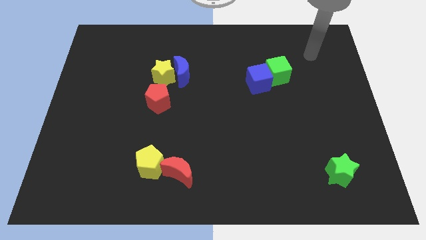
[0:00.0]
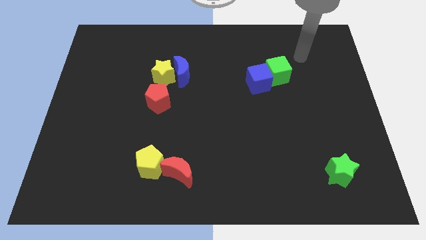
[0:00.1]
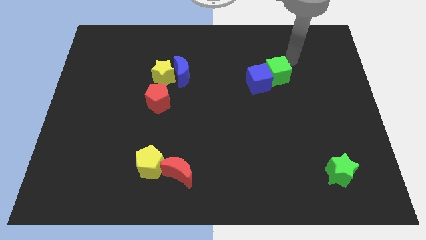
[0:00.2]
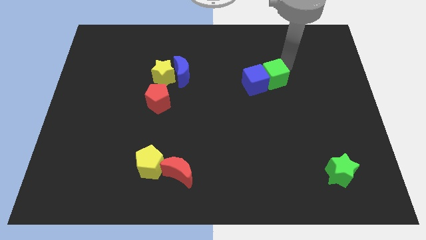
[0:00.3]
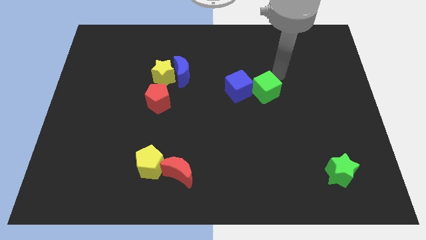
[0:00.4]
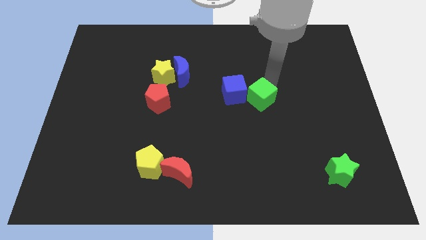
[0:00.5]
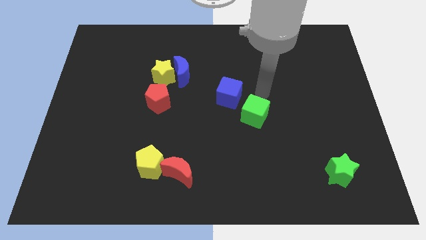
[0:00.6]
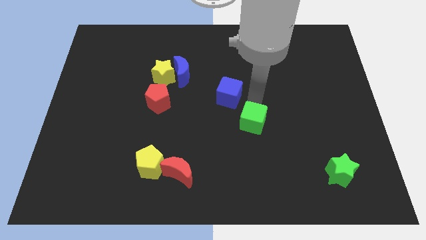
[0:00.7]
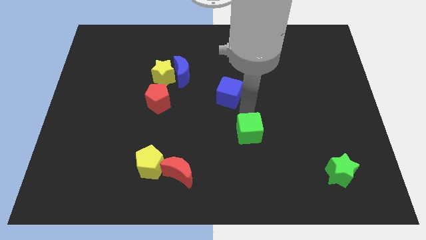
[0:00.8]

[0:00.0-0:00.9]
separate the blue cube from the green cube

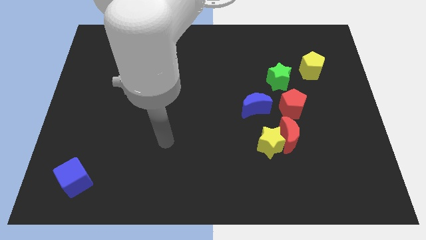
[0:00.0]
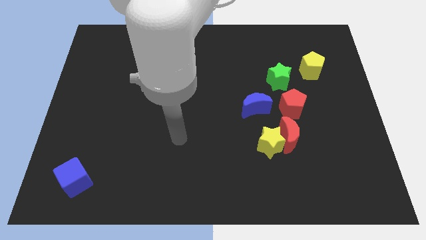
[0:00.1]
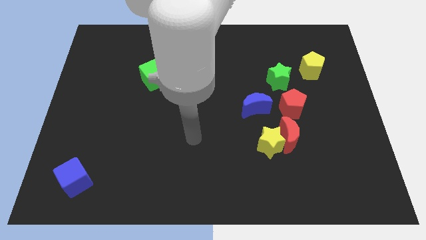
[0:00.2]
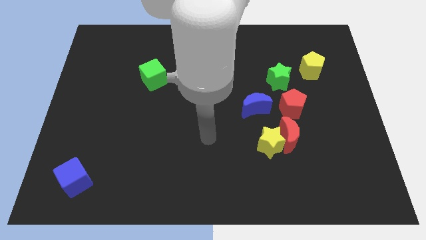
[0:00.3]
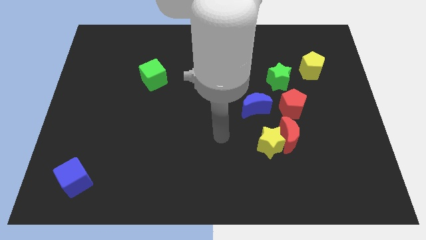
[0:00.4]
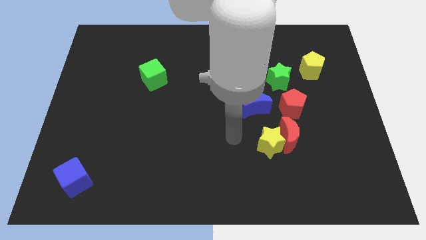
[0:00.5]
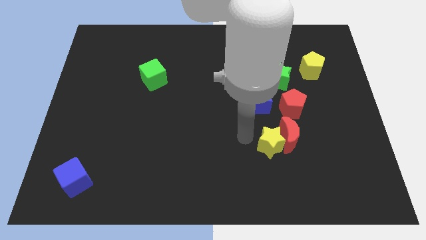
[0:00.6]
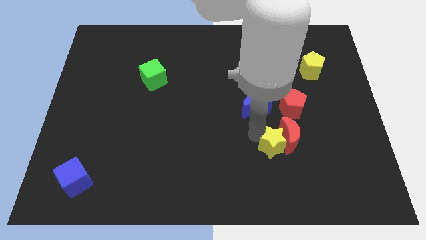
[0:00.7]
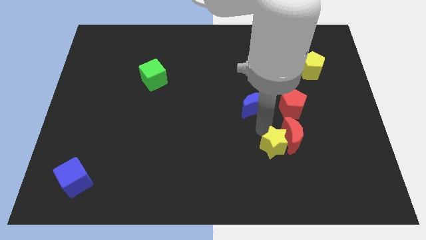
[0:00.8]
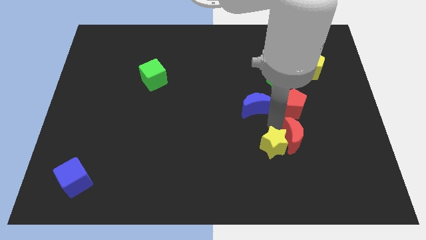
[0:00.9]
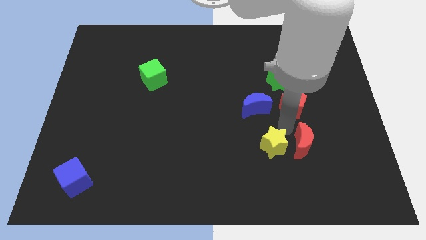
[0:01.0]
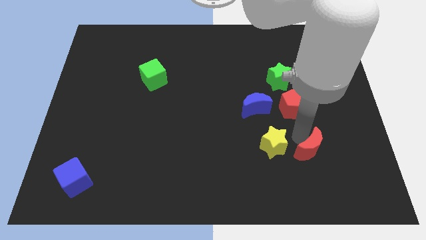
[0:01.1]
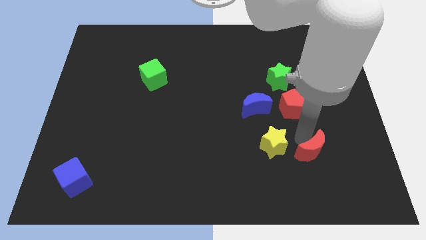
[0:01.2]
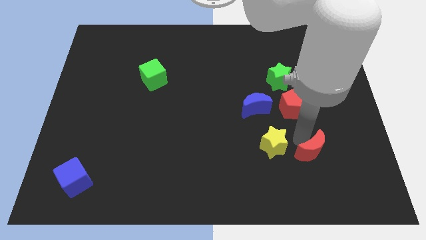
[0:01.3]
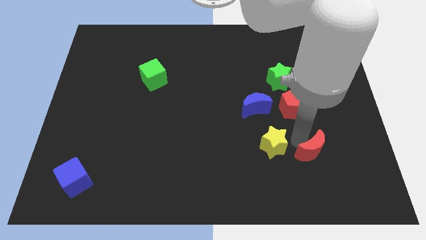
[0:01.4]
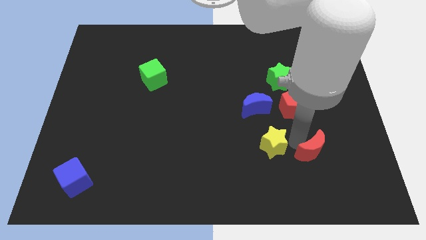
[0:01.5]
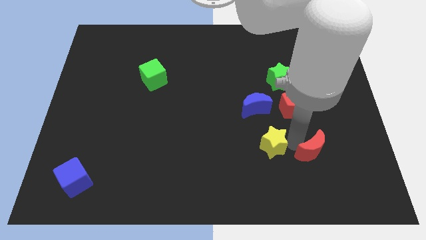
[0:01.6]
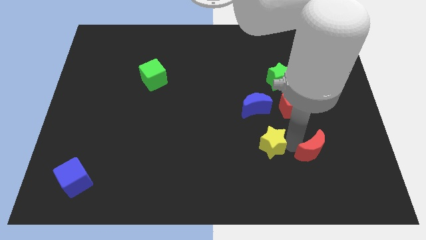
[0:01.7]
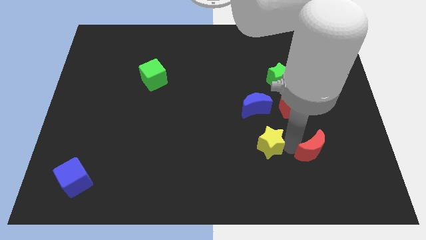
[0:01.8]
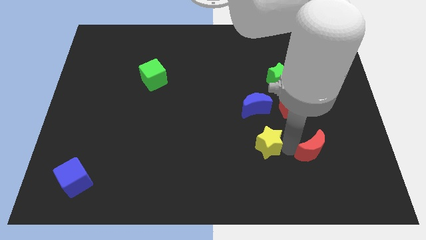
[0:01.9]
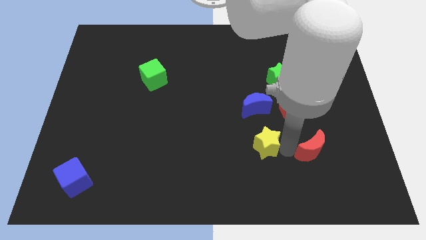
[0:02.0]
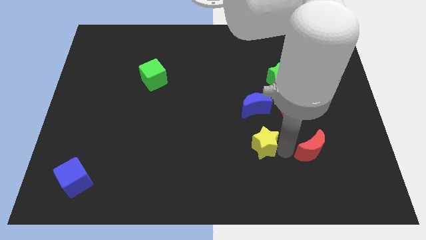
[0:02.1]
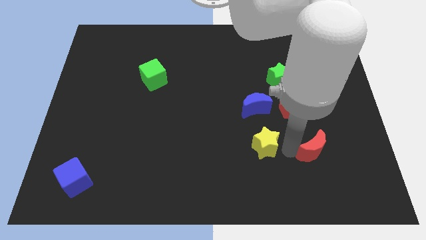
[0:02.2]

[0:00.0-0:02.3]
pull the yellow star apart from the red moon

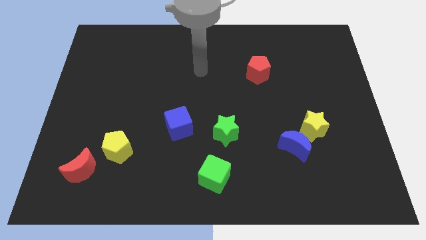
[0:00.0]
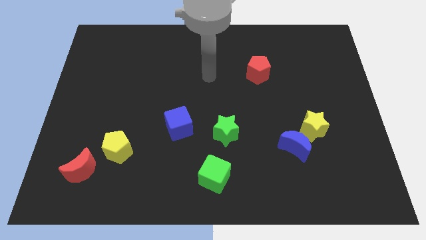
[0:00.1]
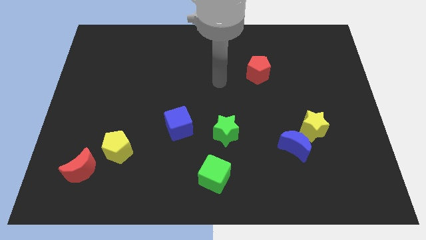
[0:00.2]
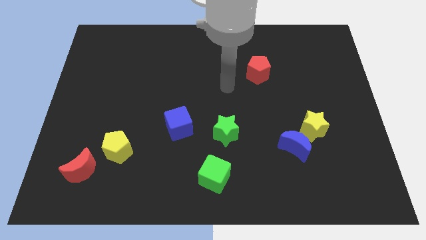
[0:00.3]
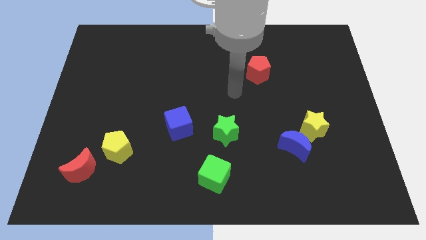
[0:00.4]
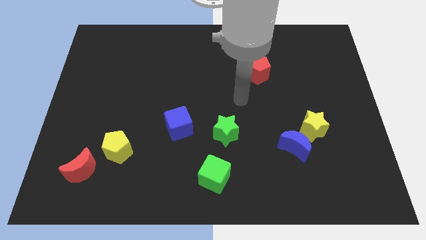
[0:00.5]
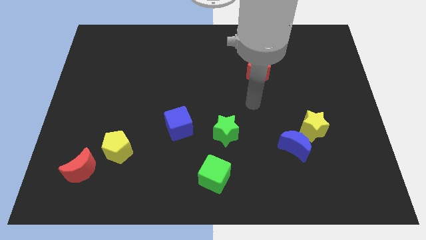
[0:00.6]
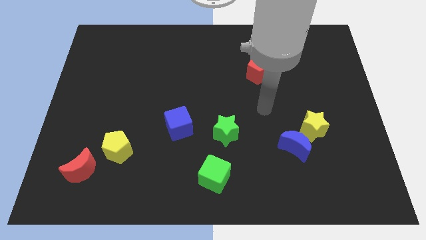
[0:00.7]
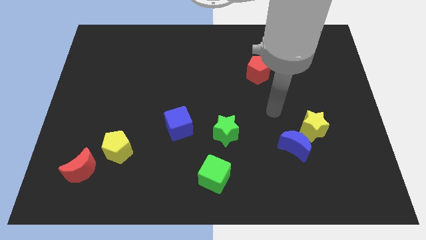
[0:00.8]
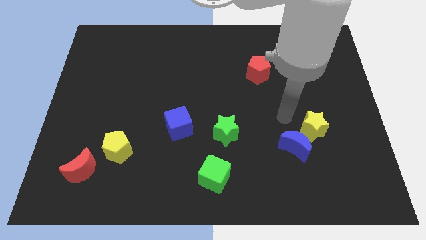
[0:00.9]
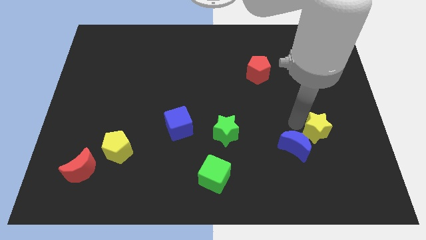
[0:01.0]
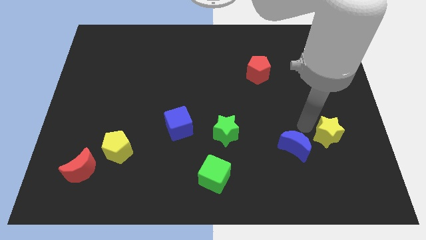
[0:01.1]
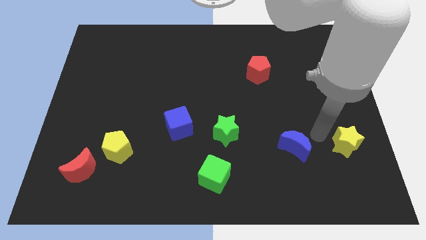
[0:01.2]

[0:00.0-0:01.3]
separate the blue moon from the yellow star

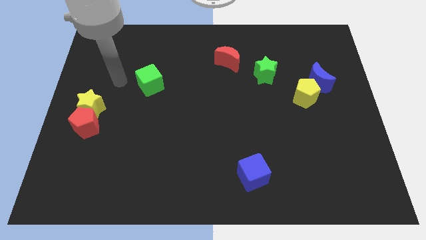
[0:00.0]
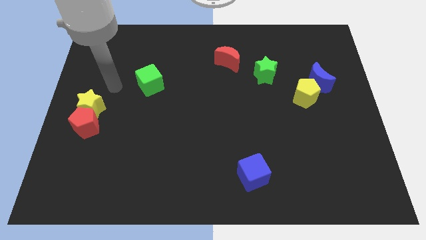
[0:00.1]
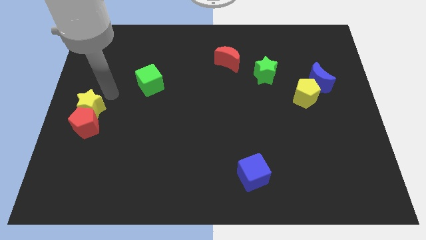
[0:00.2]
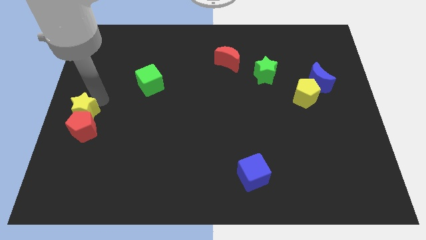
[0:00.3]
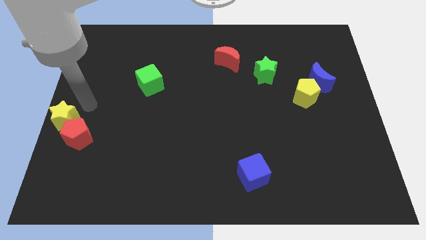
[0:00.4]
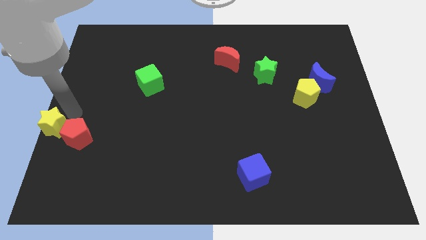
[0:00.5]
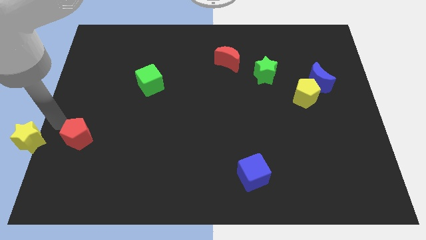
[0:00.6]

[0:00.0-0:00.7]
pull the red pentagon apart from the yellow star

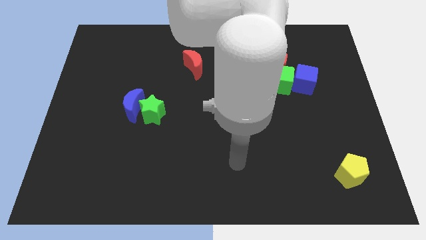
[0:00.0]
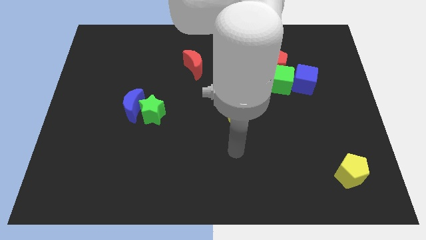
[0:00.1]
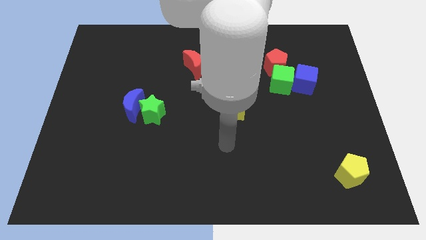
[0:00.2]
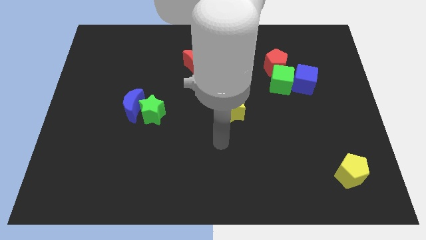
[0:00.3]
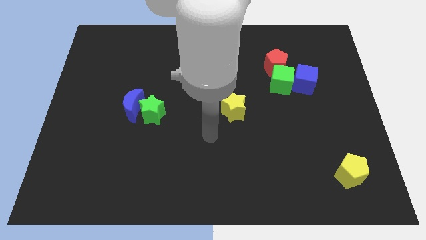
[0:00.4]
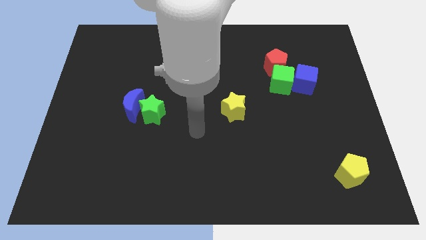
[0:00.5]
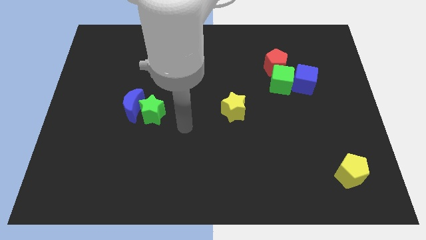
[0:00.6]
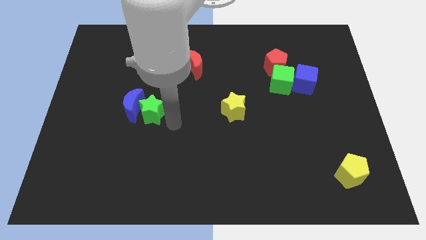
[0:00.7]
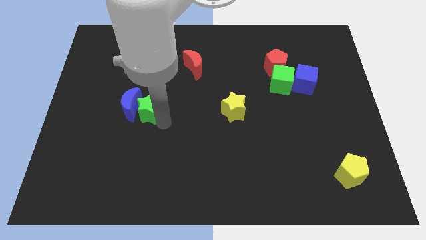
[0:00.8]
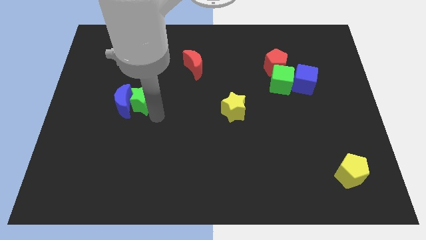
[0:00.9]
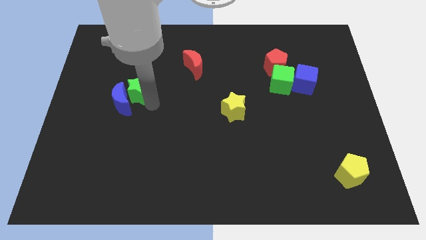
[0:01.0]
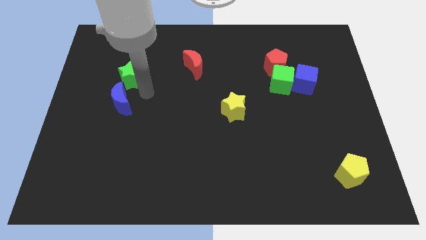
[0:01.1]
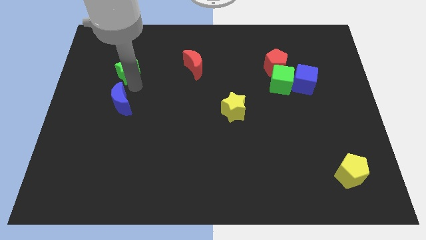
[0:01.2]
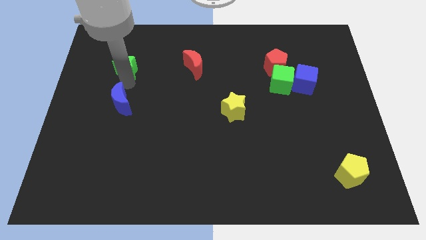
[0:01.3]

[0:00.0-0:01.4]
separate the blue moon from the green star

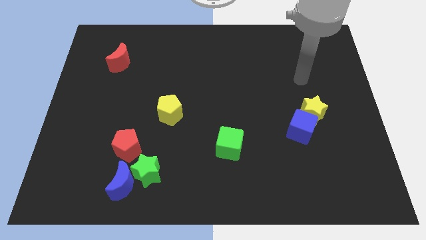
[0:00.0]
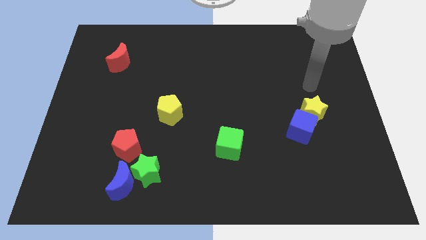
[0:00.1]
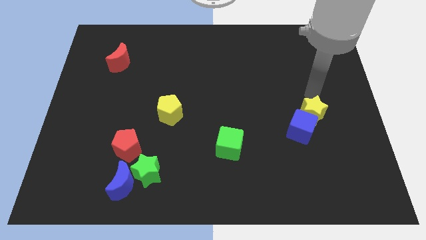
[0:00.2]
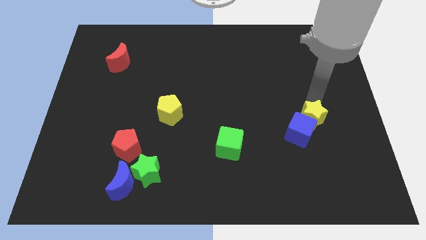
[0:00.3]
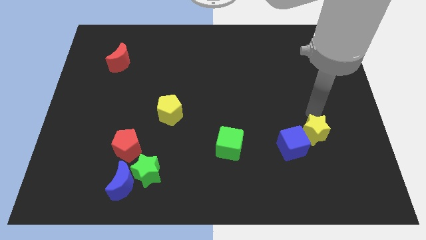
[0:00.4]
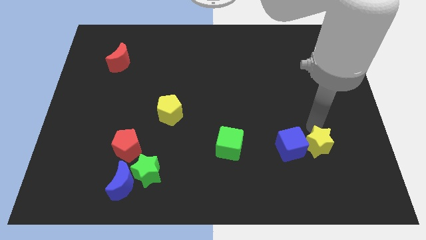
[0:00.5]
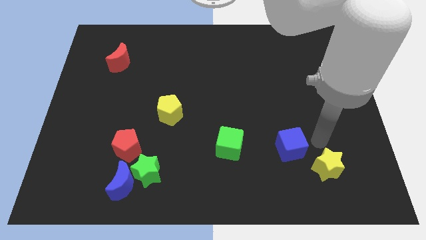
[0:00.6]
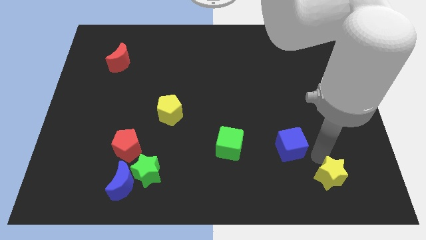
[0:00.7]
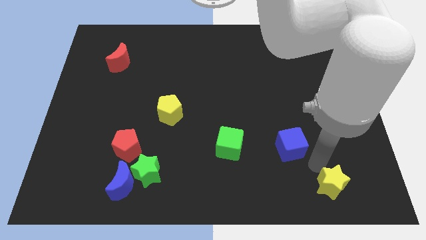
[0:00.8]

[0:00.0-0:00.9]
pull the blue cube apart from the yellow star

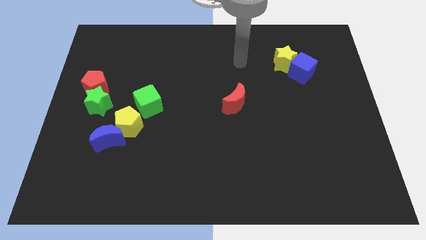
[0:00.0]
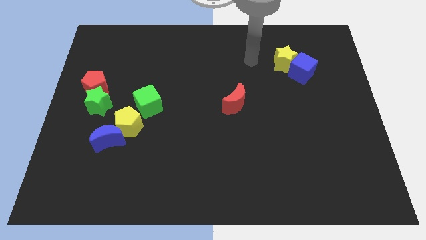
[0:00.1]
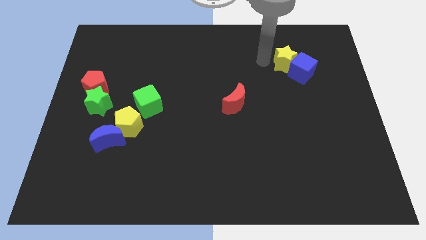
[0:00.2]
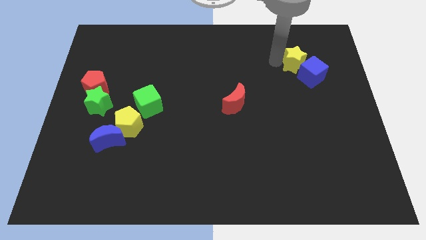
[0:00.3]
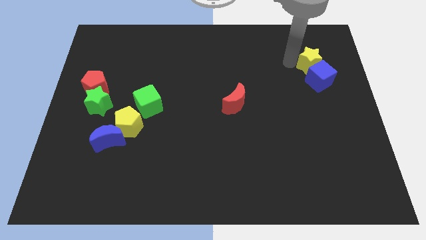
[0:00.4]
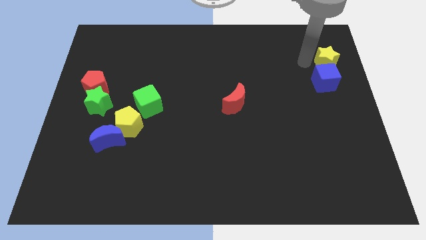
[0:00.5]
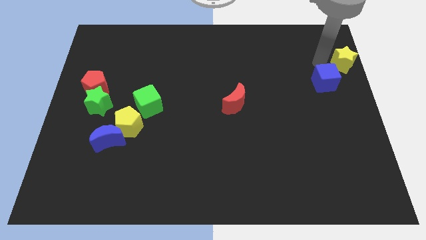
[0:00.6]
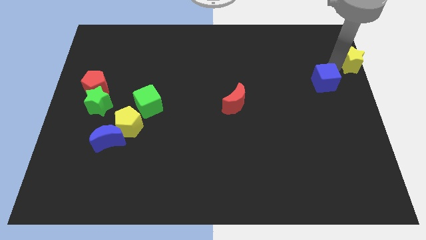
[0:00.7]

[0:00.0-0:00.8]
separate the blue cube from the yellow star

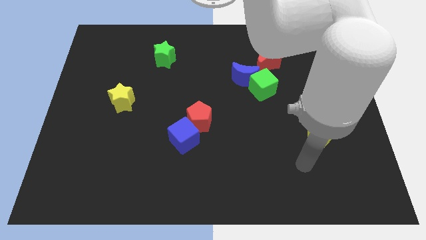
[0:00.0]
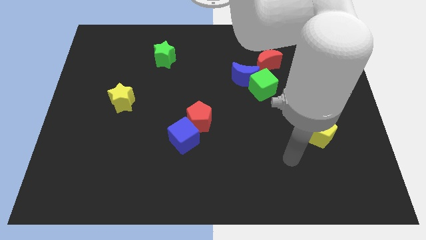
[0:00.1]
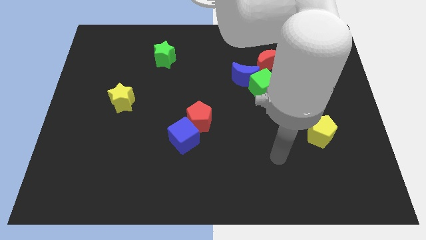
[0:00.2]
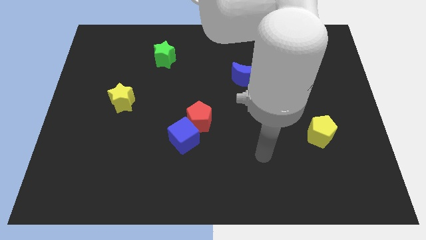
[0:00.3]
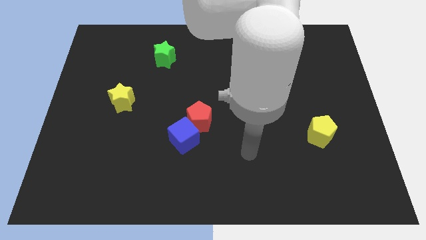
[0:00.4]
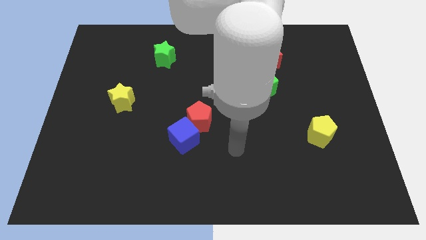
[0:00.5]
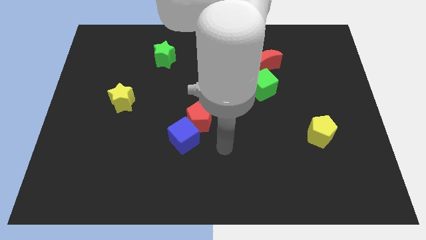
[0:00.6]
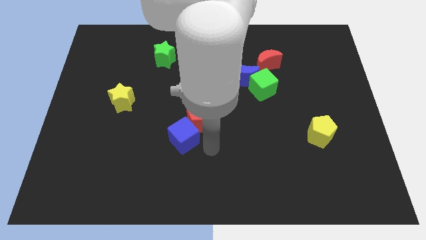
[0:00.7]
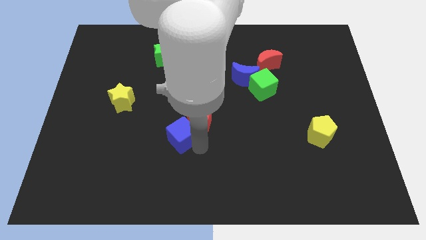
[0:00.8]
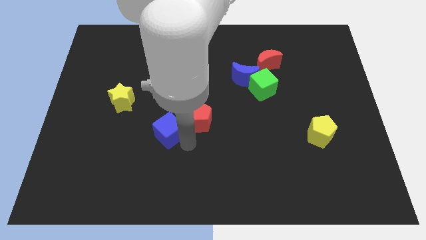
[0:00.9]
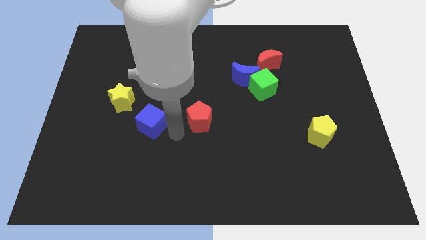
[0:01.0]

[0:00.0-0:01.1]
separate the red pentagon from the blue cube
